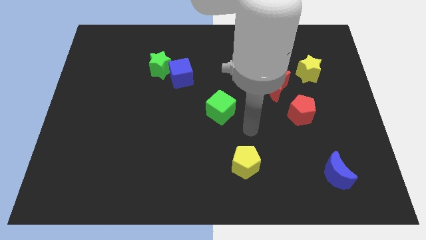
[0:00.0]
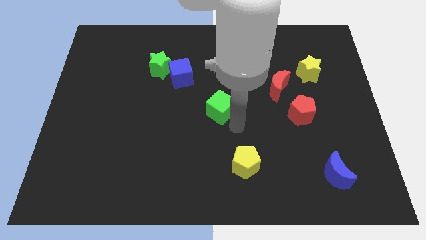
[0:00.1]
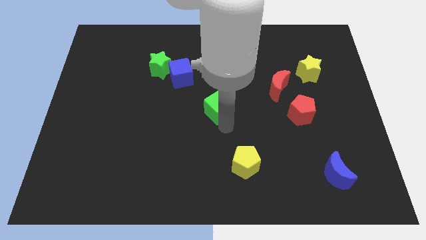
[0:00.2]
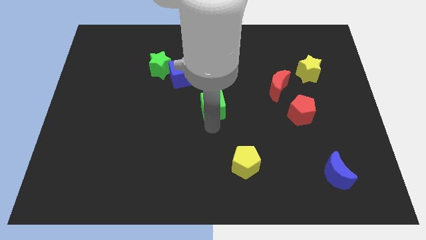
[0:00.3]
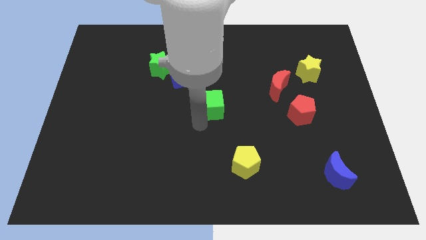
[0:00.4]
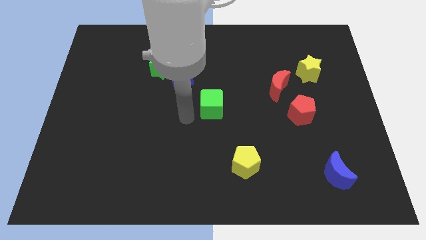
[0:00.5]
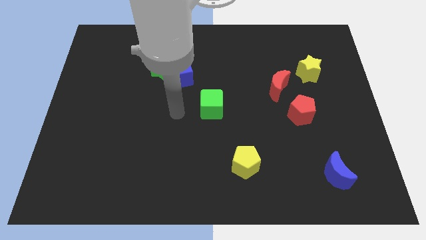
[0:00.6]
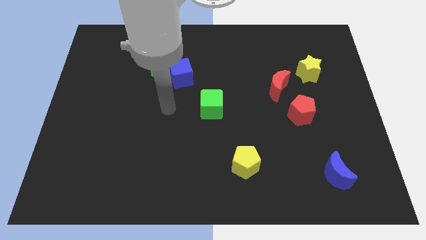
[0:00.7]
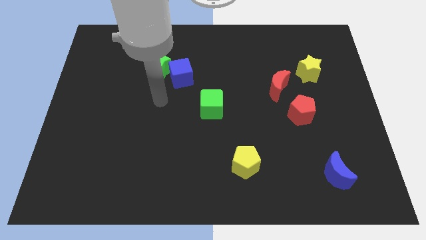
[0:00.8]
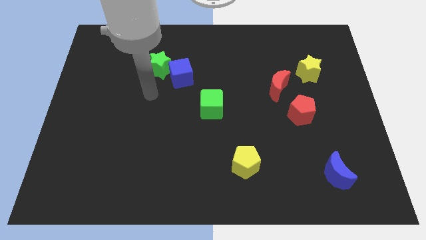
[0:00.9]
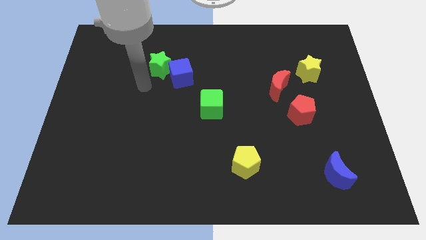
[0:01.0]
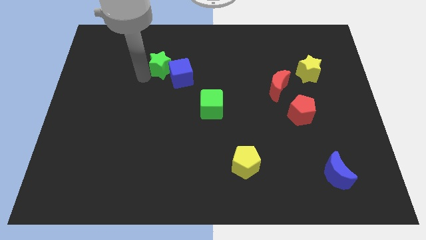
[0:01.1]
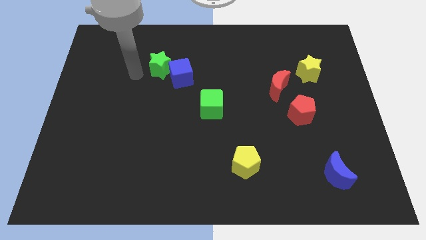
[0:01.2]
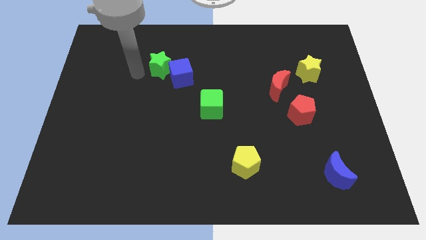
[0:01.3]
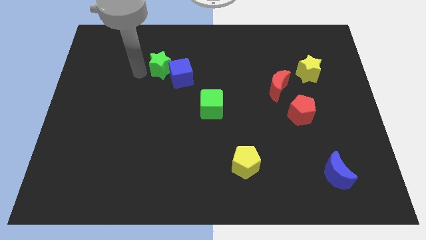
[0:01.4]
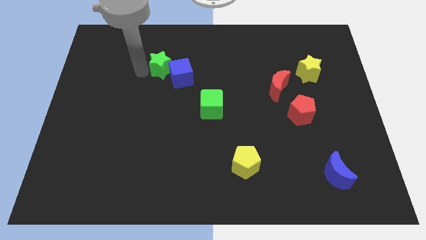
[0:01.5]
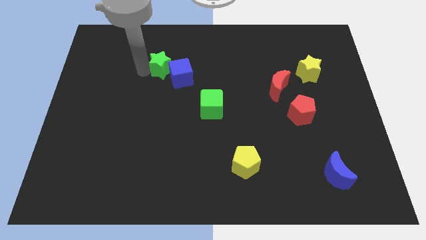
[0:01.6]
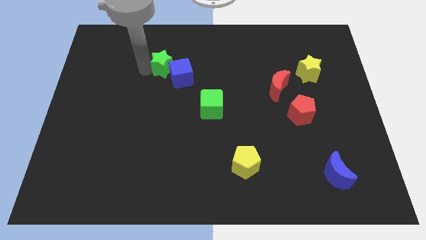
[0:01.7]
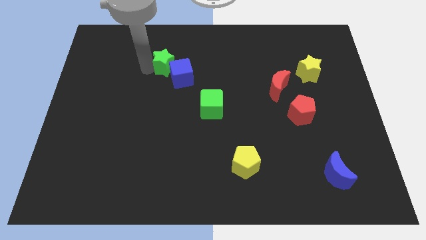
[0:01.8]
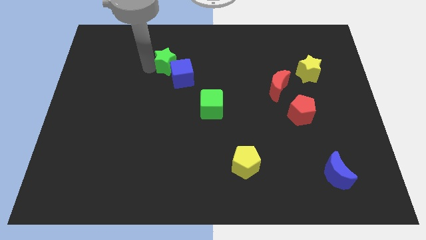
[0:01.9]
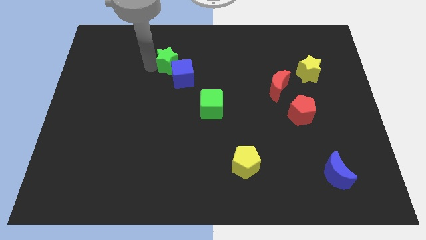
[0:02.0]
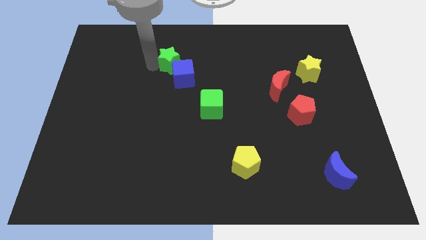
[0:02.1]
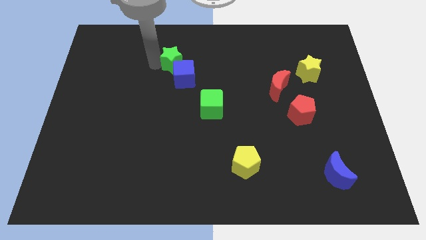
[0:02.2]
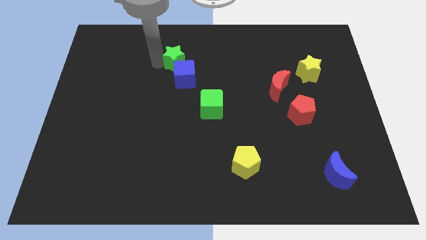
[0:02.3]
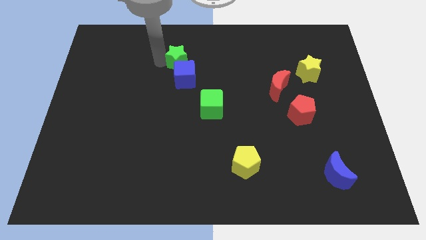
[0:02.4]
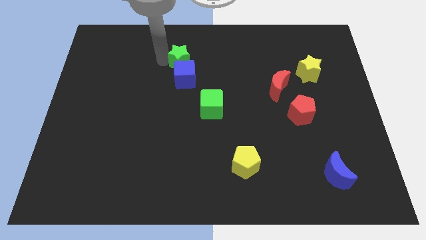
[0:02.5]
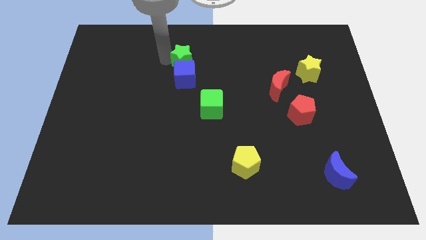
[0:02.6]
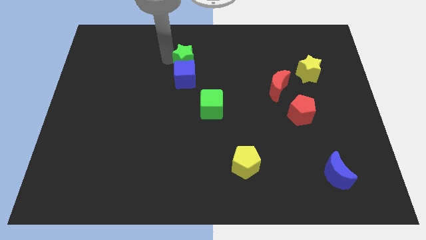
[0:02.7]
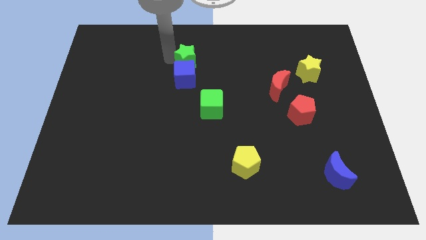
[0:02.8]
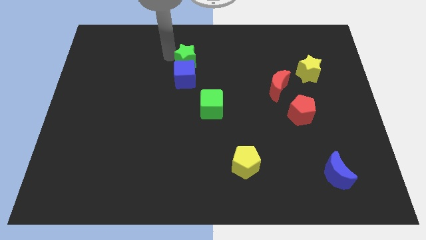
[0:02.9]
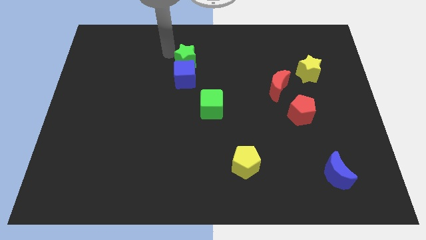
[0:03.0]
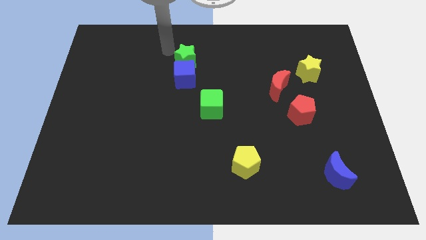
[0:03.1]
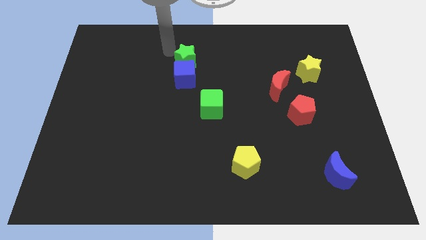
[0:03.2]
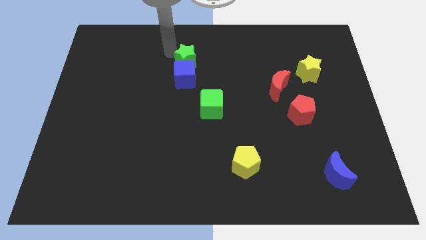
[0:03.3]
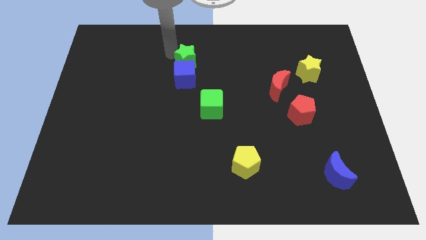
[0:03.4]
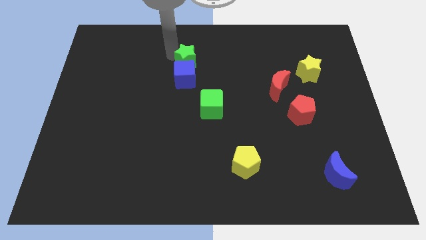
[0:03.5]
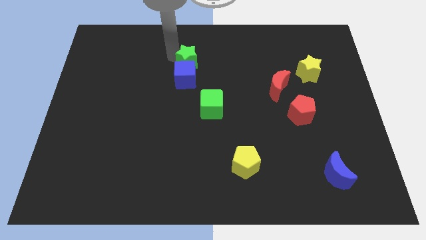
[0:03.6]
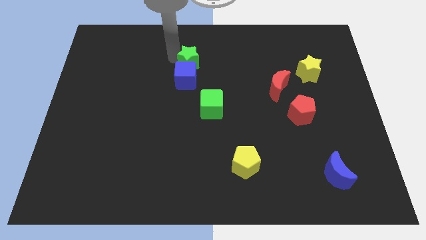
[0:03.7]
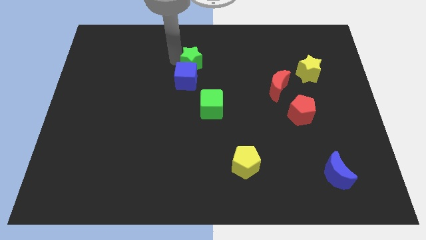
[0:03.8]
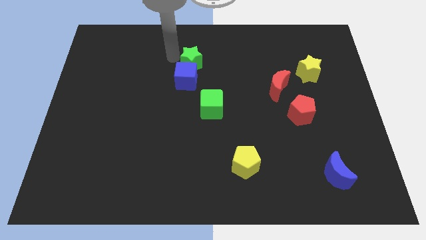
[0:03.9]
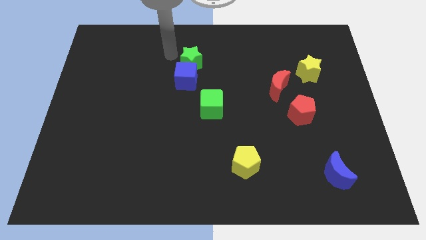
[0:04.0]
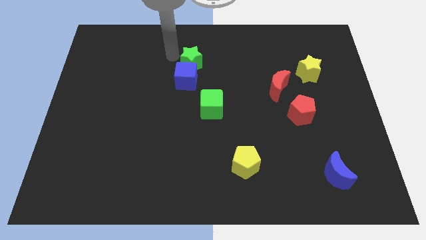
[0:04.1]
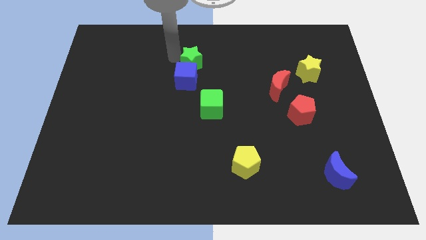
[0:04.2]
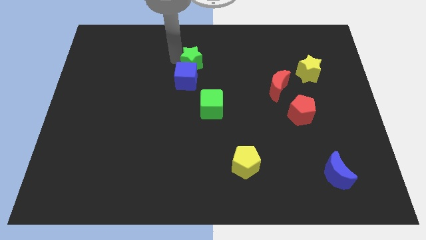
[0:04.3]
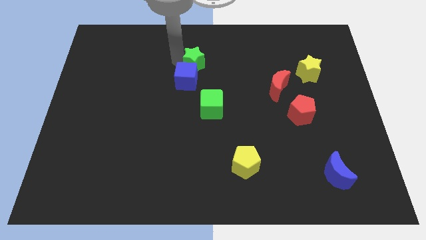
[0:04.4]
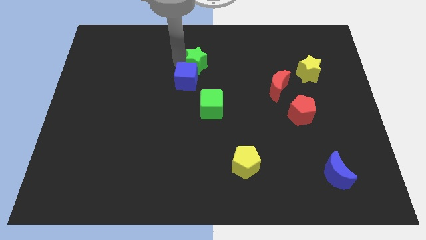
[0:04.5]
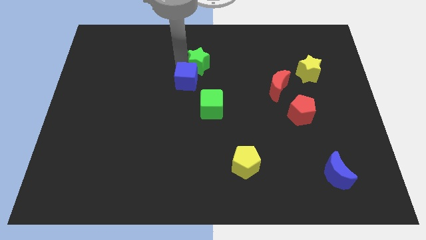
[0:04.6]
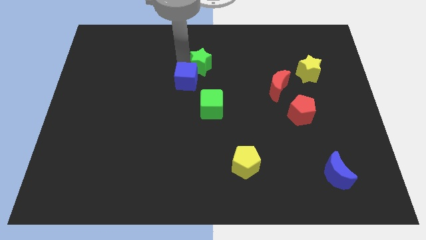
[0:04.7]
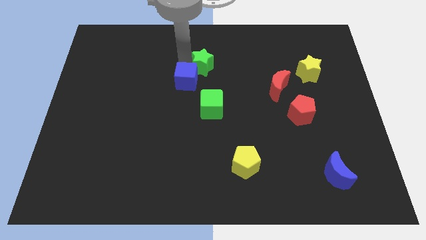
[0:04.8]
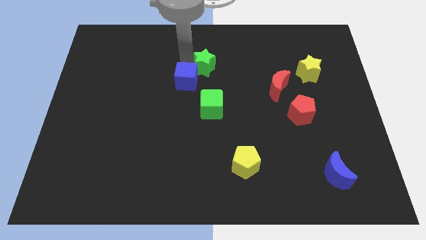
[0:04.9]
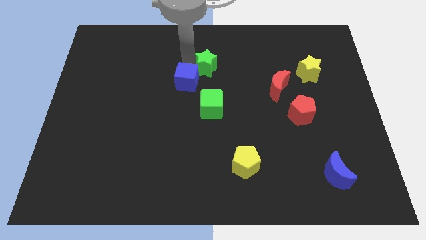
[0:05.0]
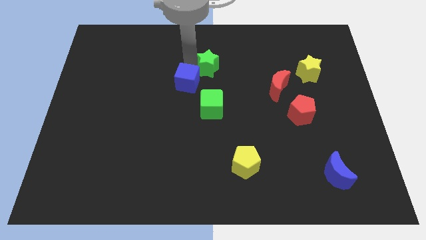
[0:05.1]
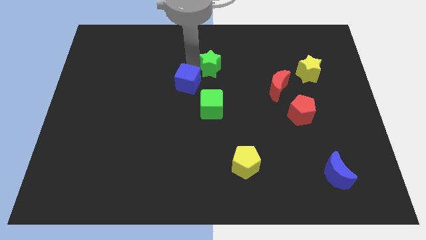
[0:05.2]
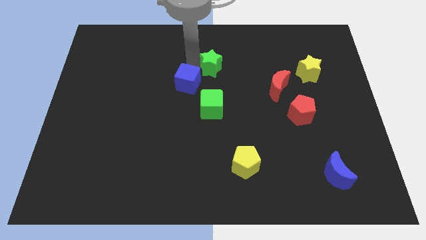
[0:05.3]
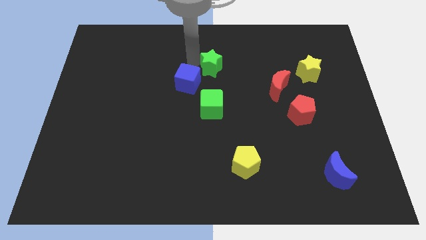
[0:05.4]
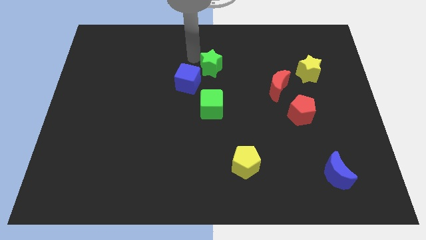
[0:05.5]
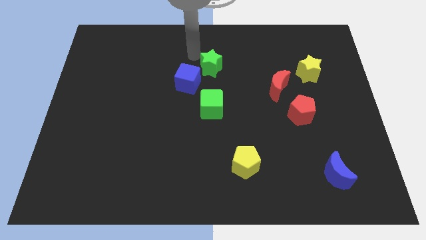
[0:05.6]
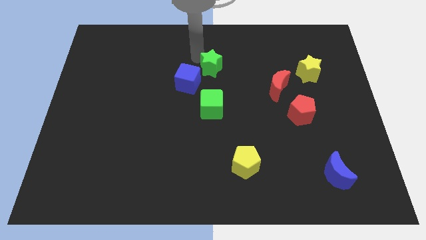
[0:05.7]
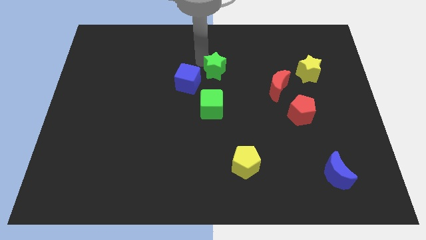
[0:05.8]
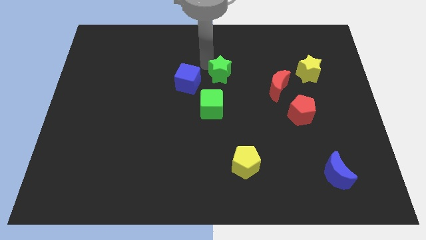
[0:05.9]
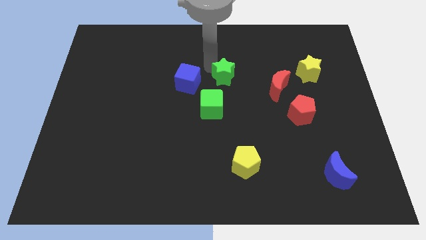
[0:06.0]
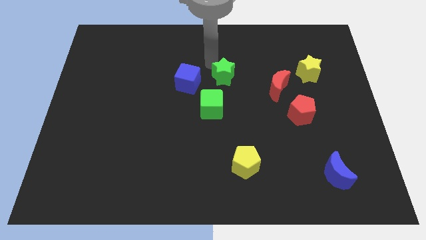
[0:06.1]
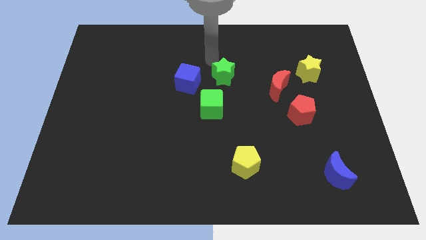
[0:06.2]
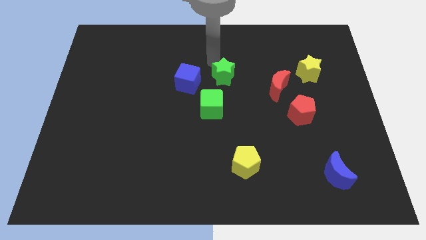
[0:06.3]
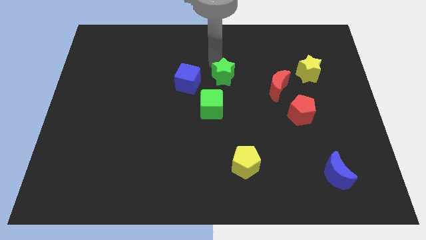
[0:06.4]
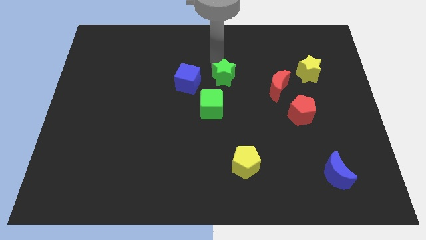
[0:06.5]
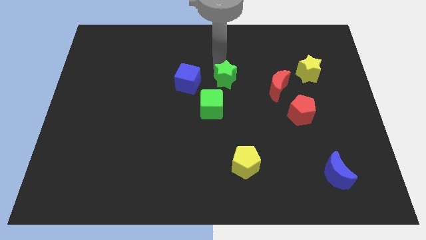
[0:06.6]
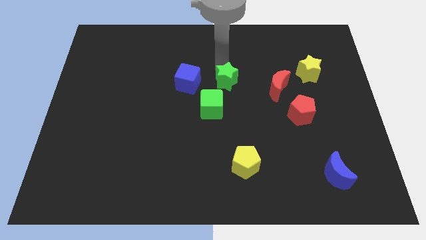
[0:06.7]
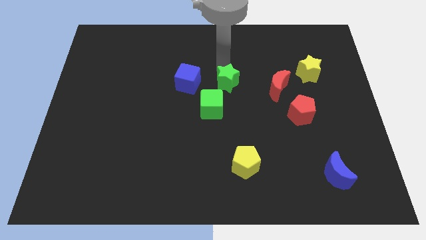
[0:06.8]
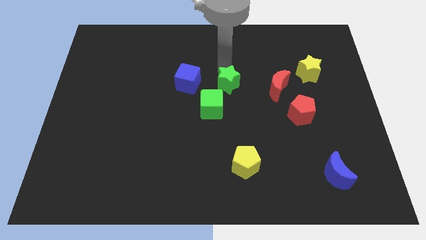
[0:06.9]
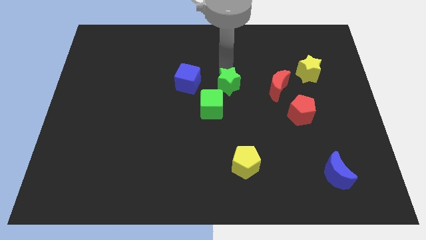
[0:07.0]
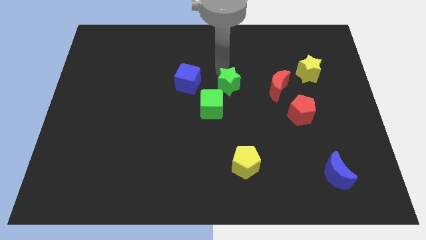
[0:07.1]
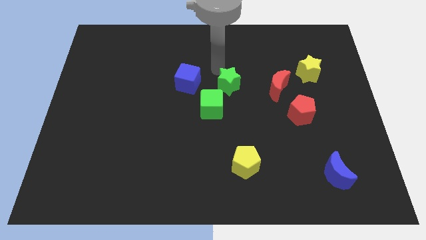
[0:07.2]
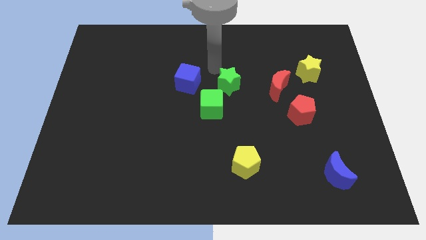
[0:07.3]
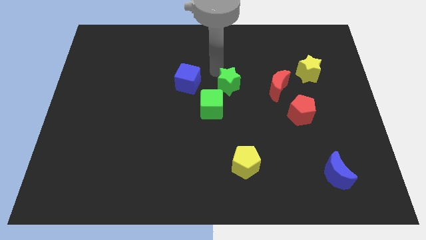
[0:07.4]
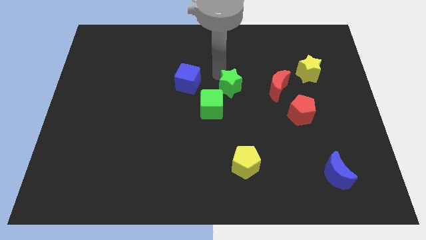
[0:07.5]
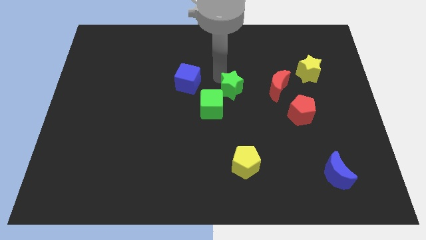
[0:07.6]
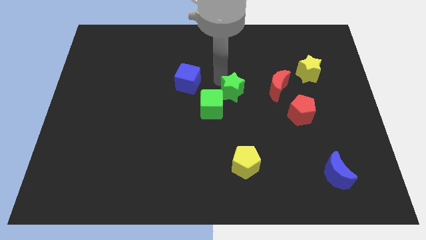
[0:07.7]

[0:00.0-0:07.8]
put the green star just right of the green cube
